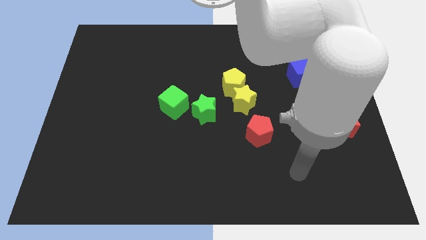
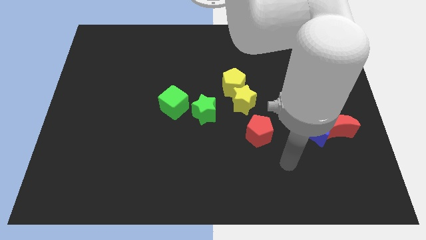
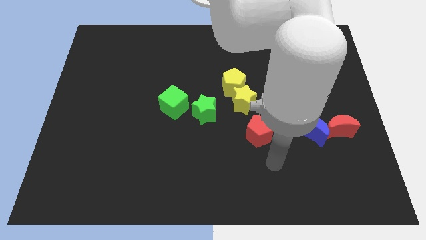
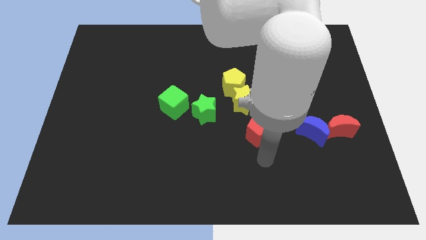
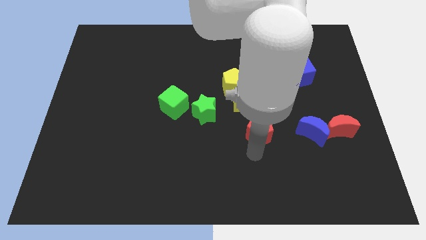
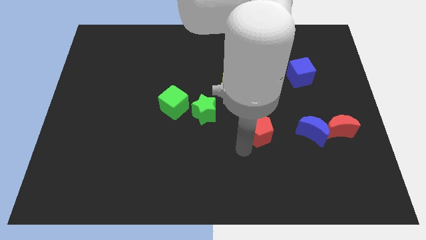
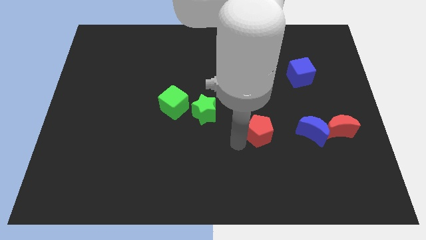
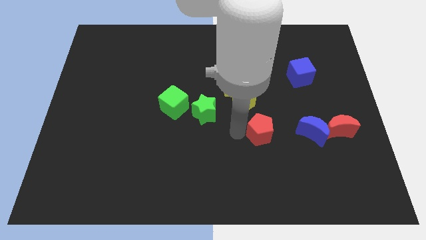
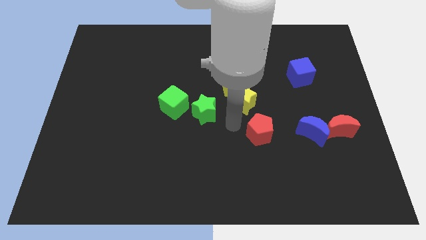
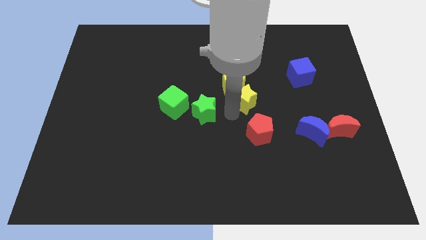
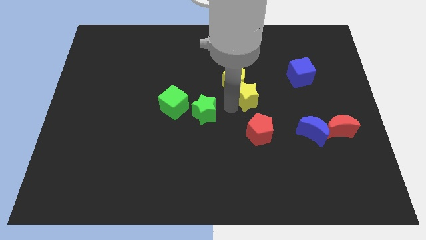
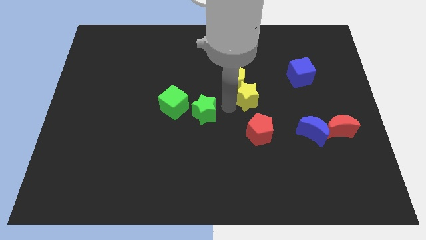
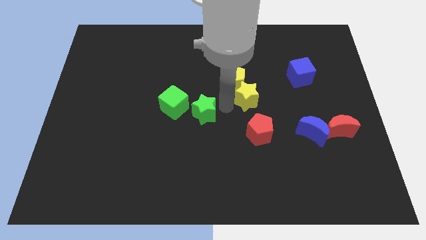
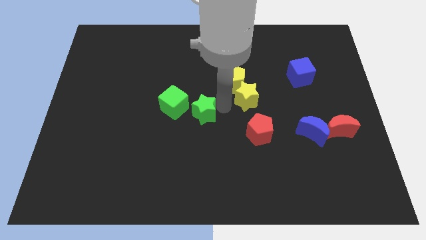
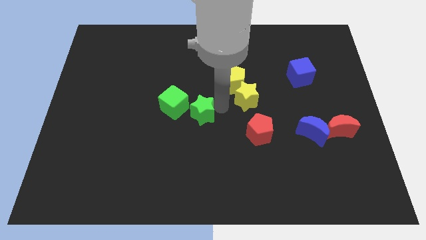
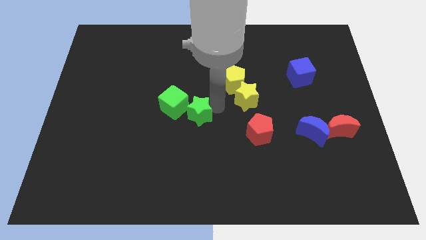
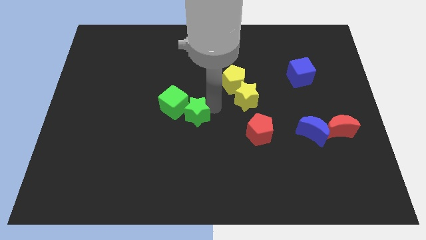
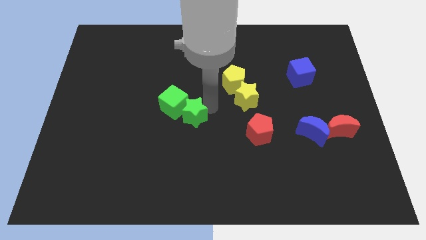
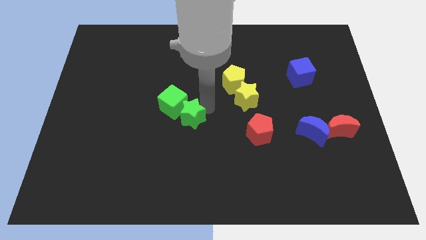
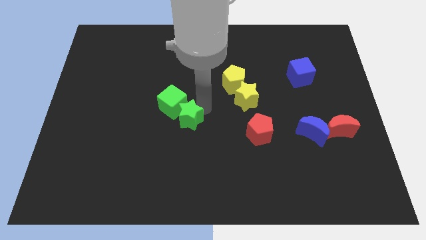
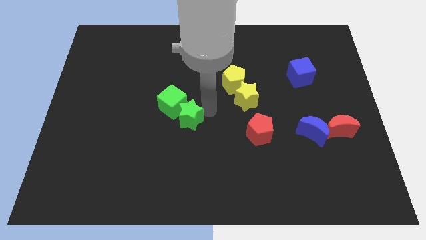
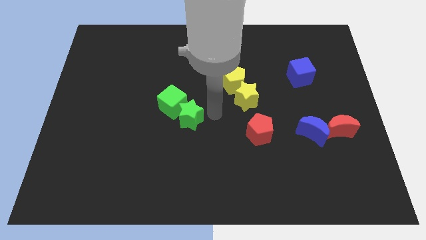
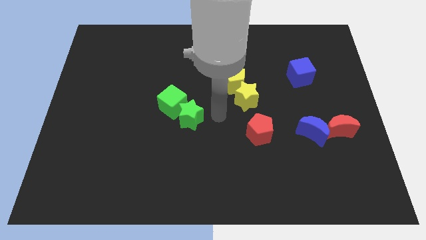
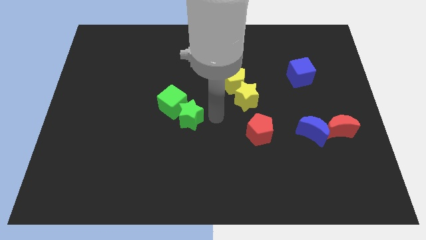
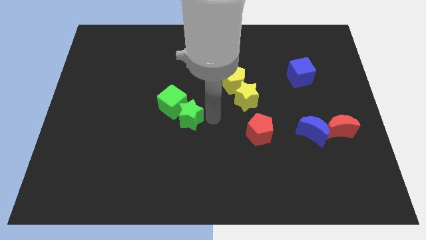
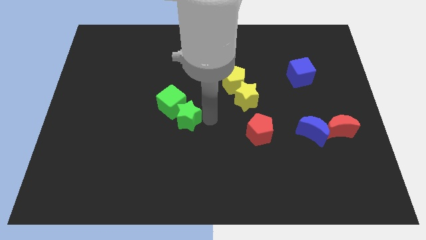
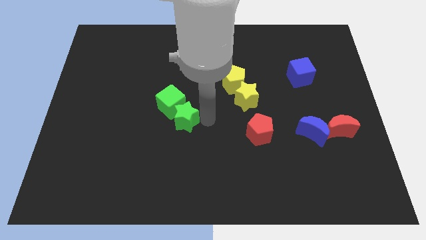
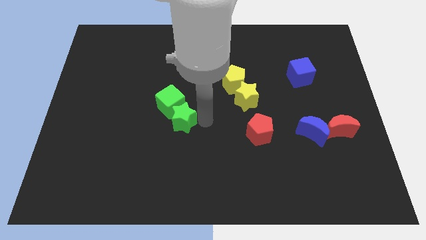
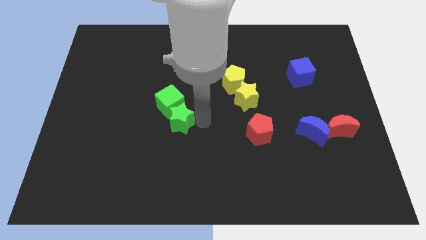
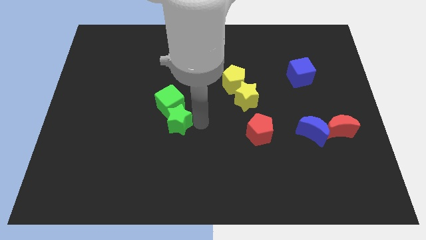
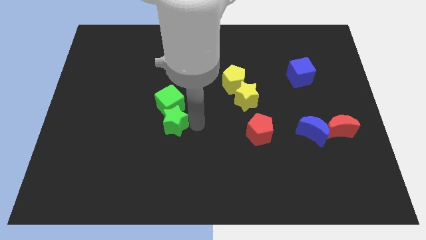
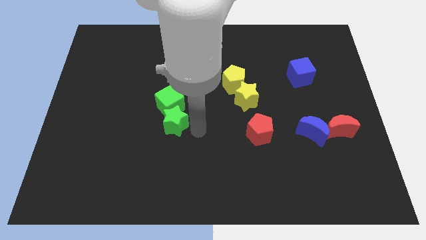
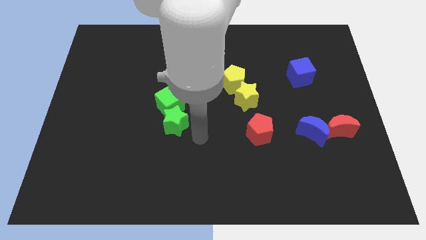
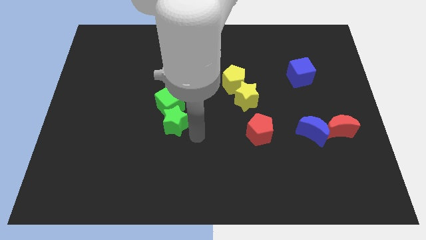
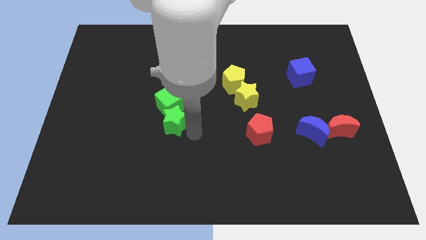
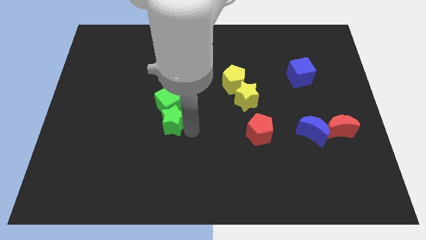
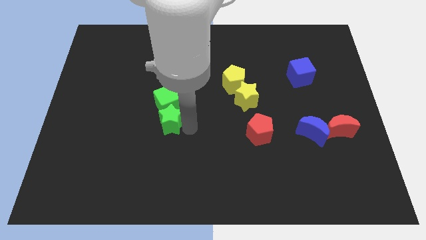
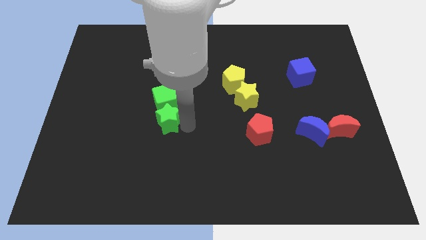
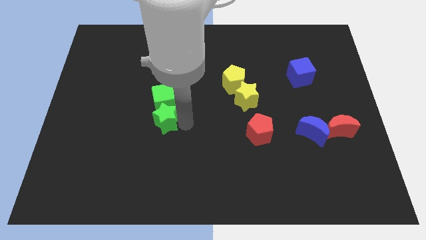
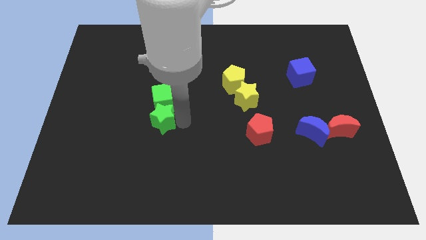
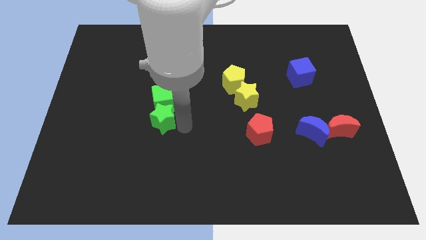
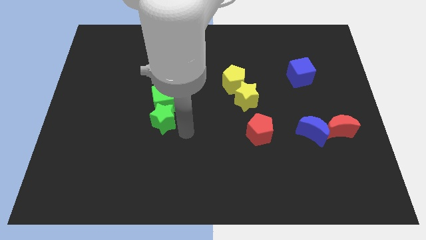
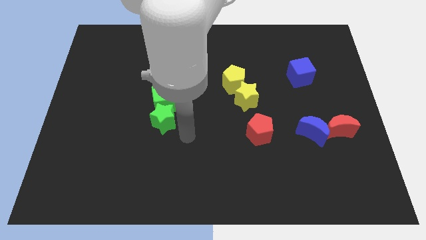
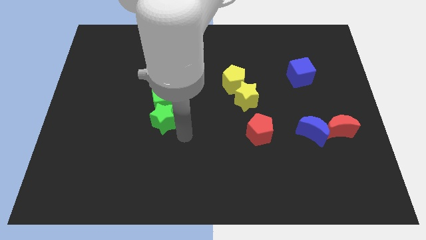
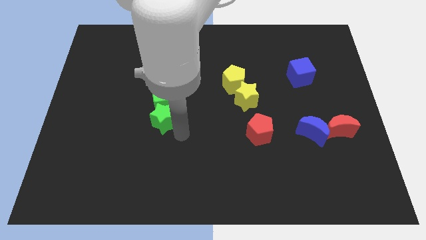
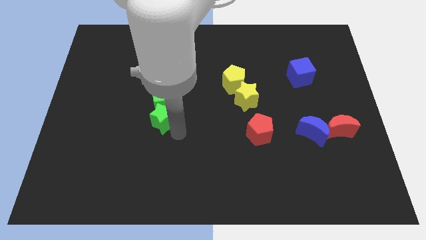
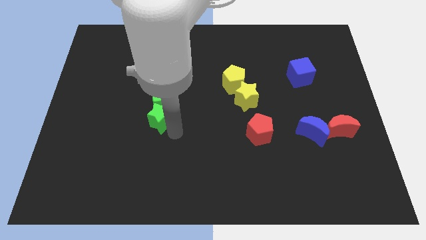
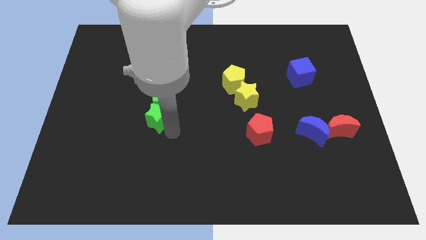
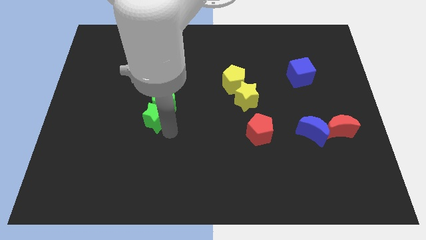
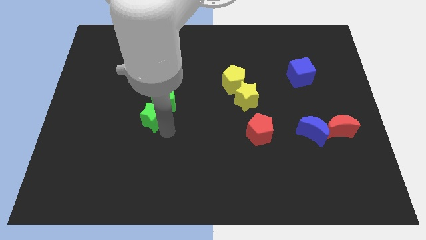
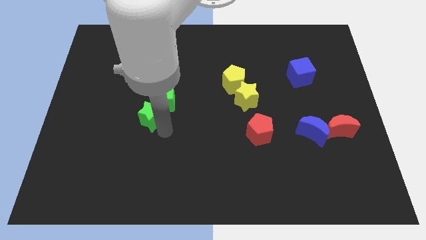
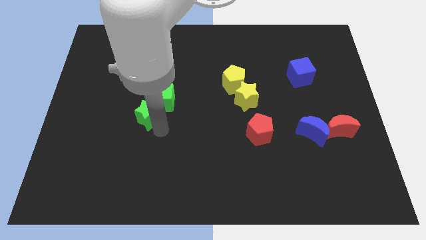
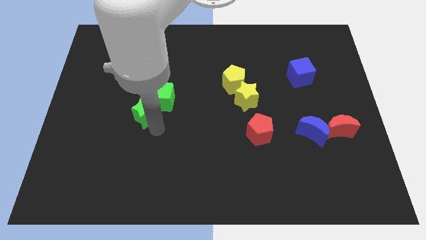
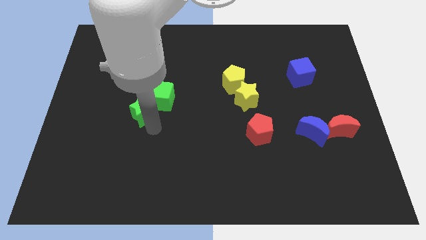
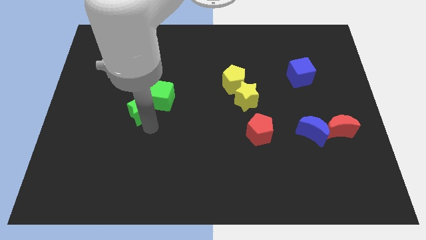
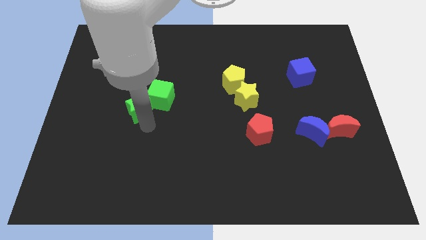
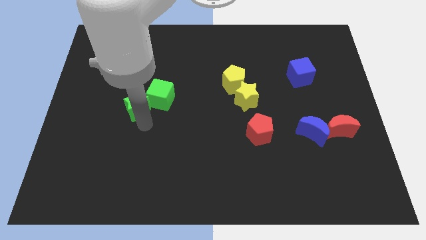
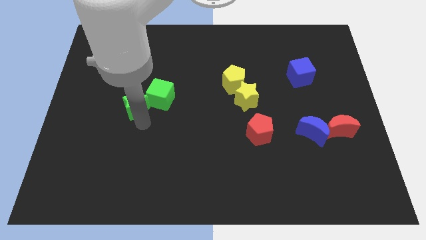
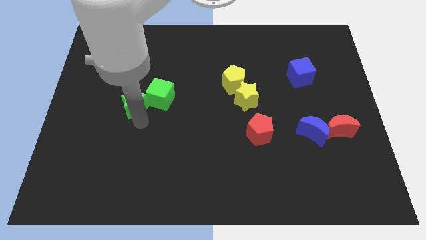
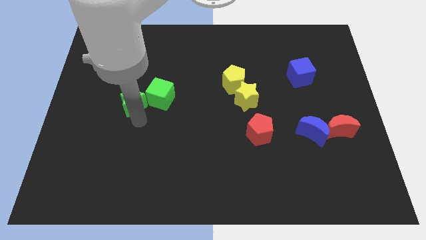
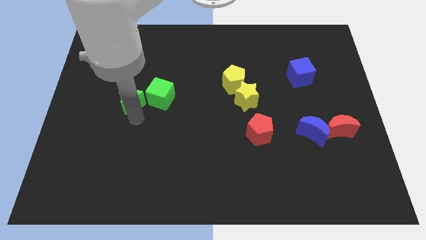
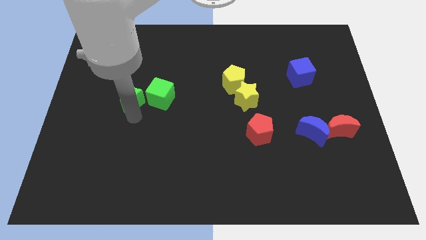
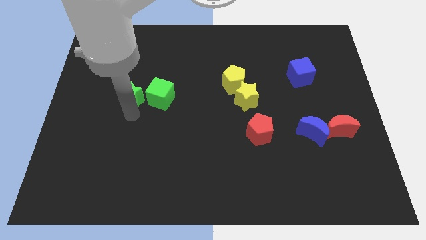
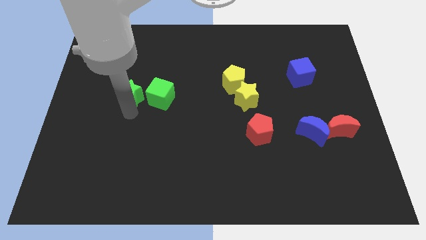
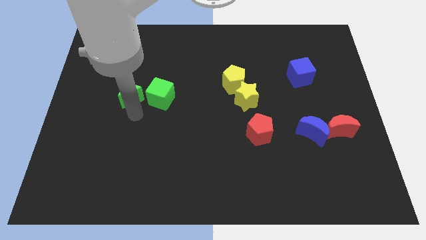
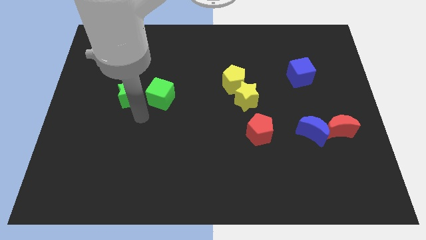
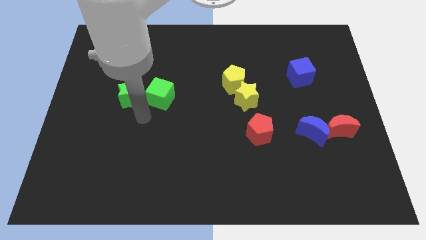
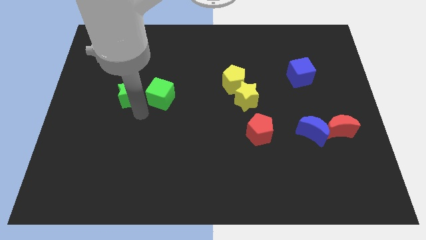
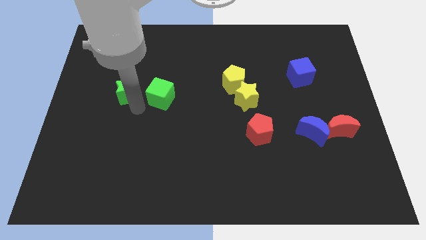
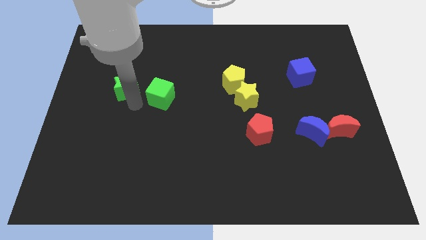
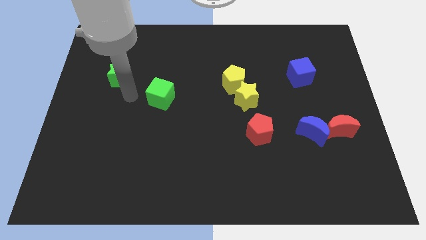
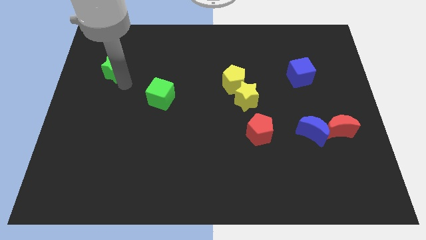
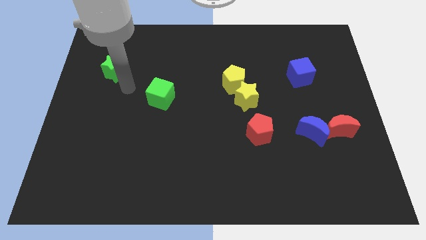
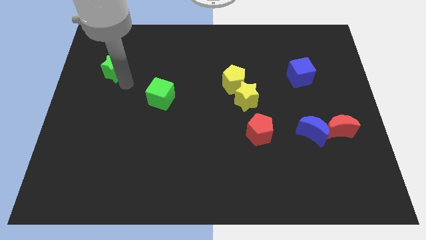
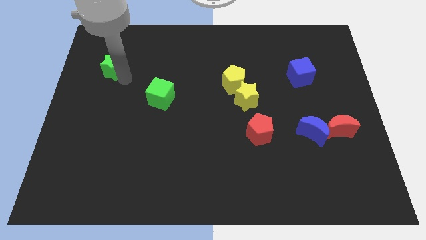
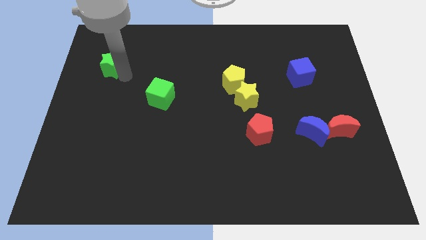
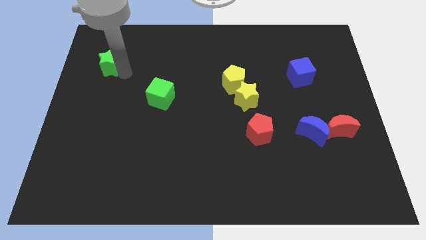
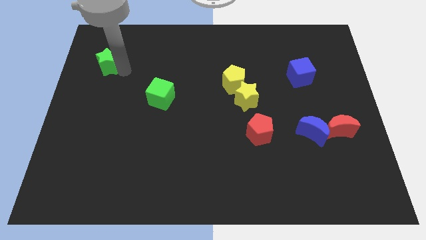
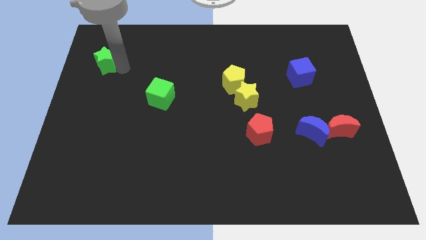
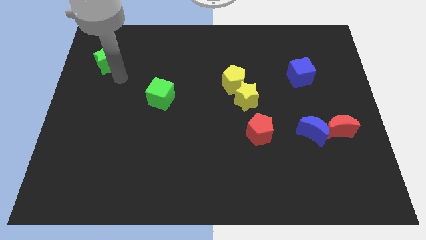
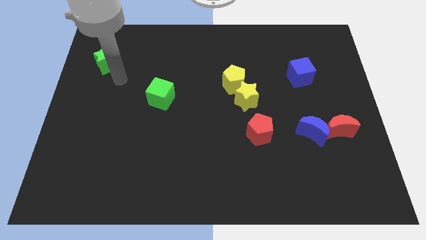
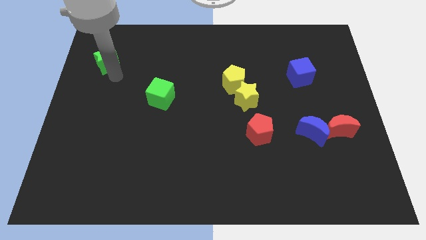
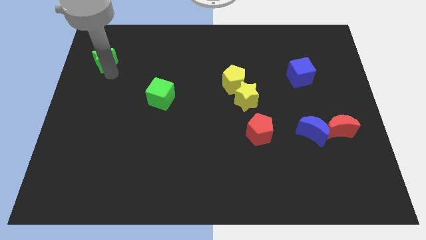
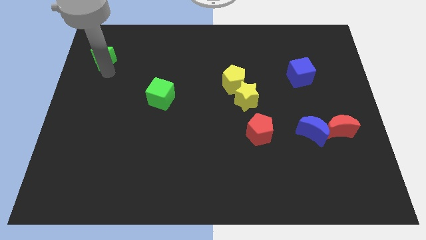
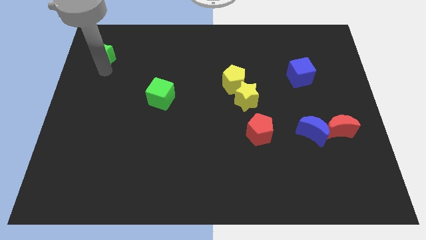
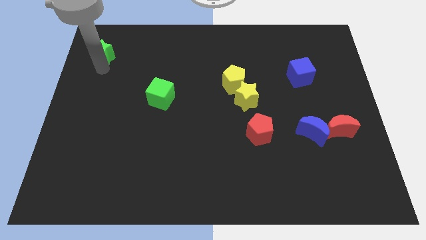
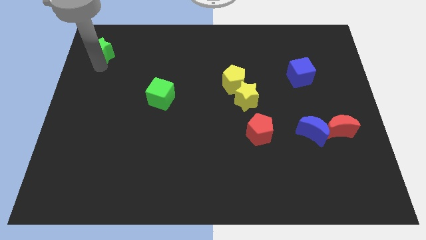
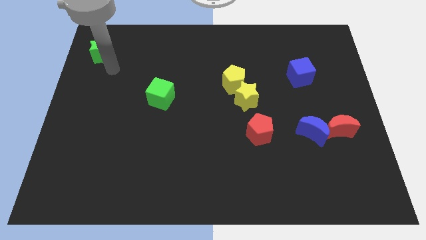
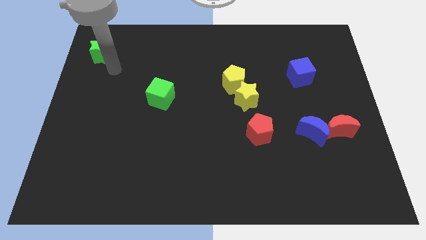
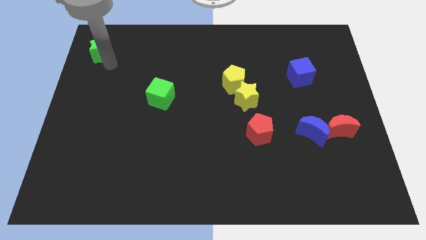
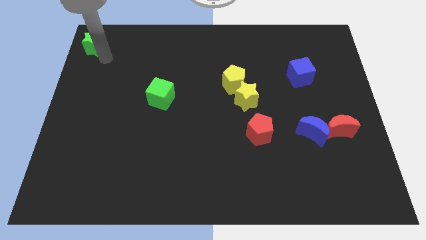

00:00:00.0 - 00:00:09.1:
put the green star to the top left corner
